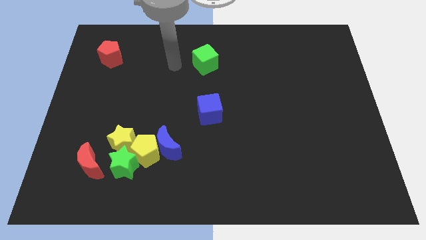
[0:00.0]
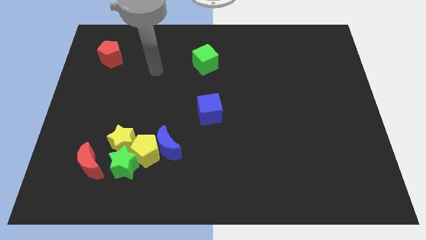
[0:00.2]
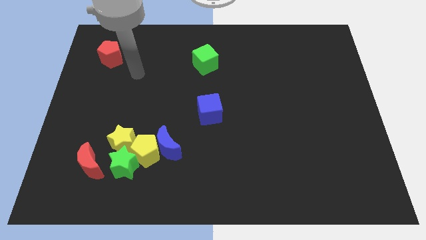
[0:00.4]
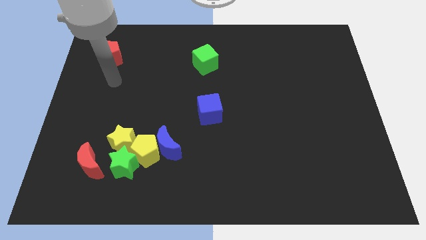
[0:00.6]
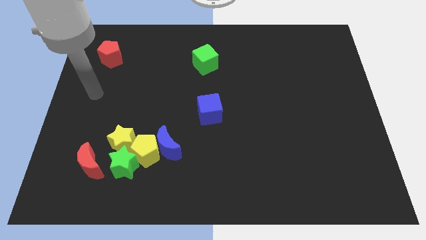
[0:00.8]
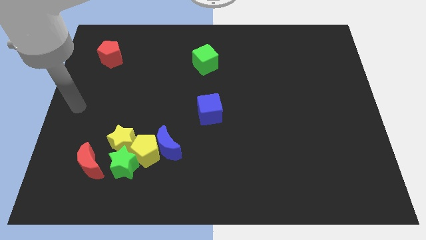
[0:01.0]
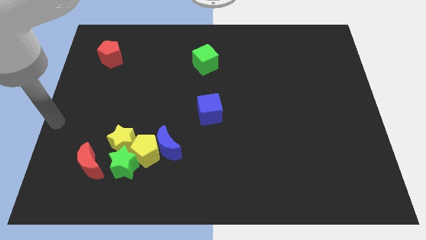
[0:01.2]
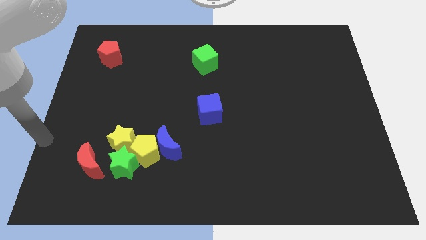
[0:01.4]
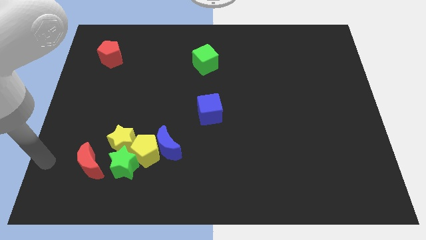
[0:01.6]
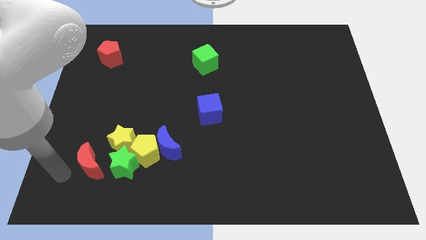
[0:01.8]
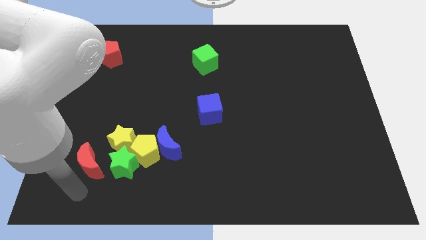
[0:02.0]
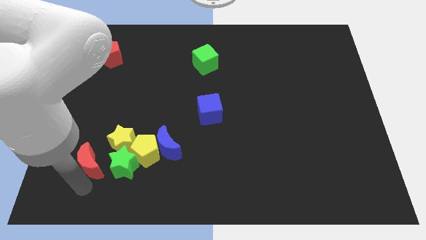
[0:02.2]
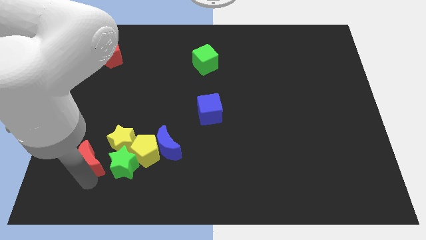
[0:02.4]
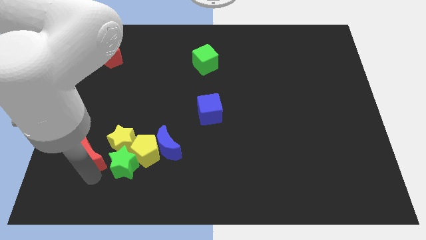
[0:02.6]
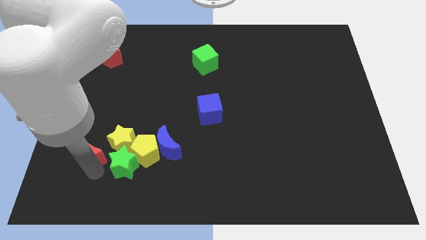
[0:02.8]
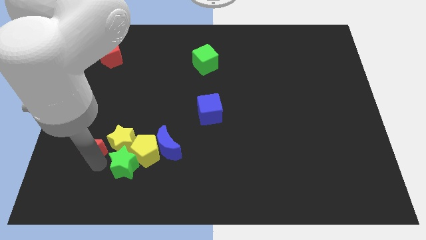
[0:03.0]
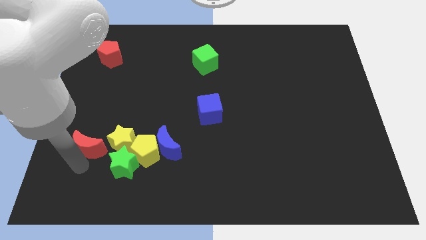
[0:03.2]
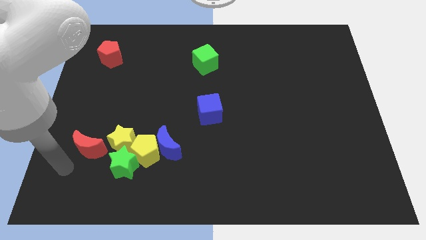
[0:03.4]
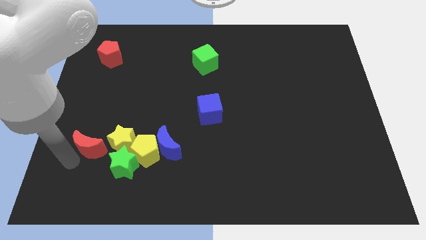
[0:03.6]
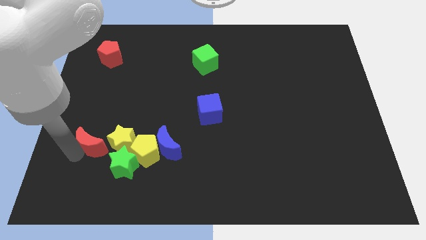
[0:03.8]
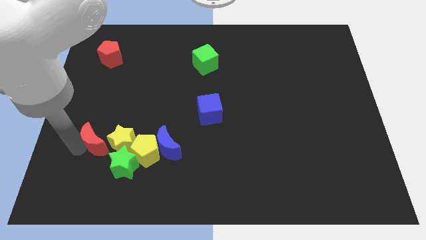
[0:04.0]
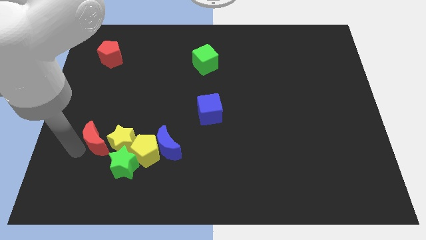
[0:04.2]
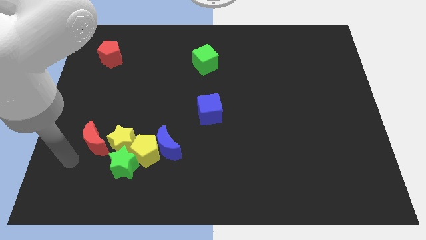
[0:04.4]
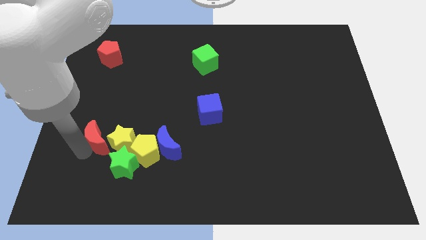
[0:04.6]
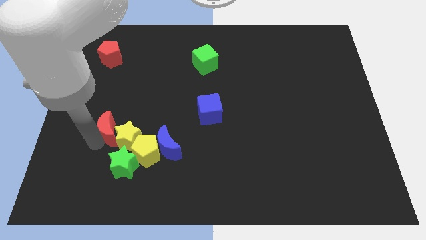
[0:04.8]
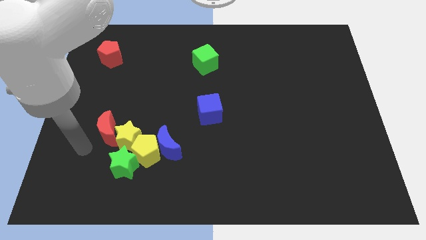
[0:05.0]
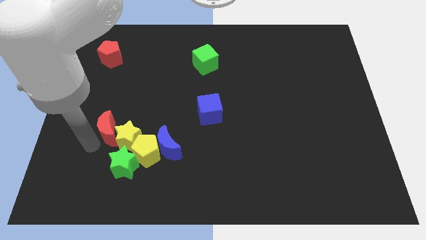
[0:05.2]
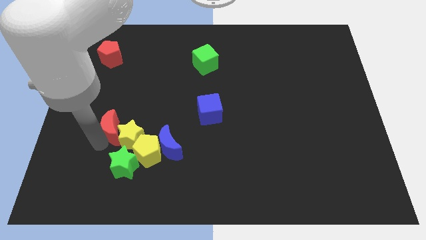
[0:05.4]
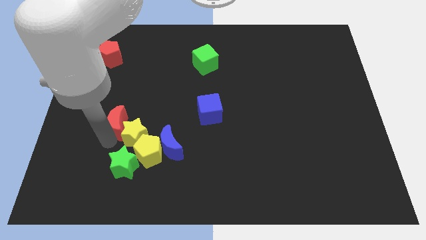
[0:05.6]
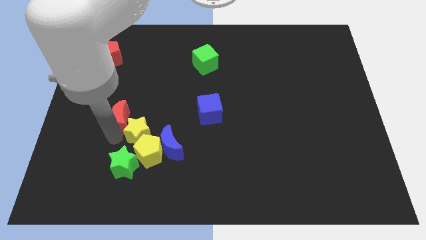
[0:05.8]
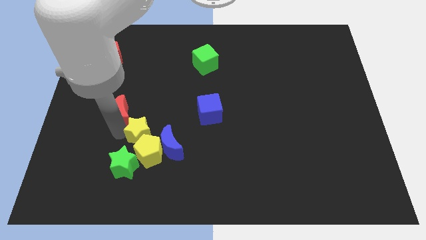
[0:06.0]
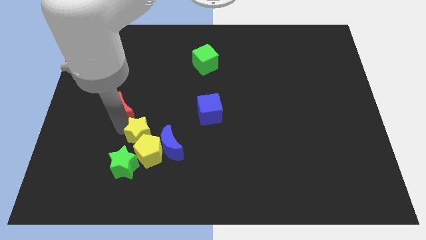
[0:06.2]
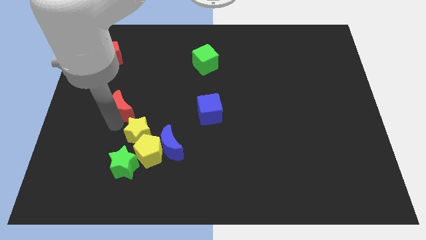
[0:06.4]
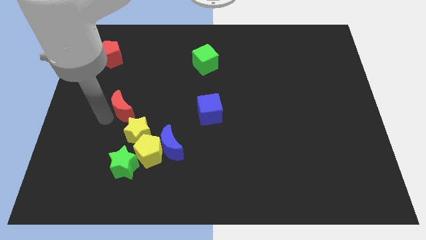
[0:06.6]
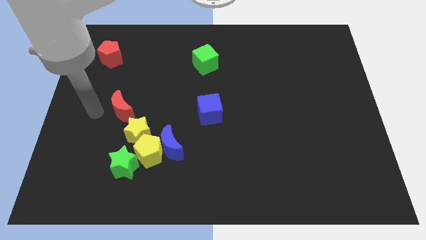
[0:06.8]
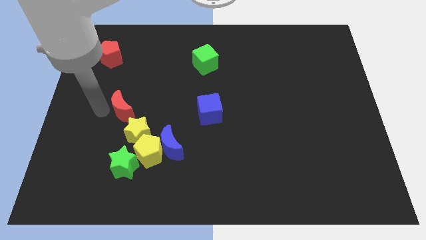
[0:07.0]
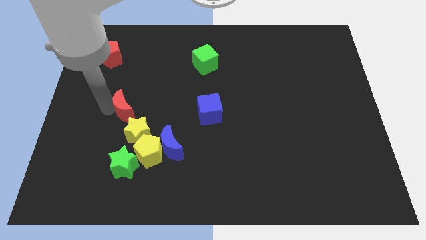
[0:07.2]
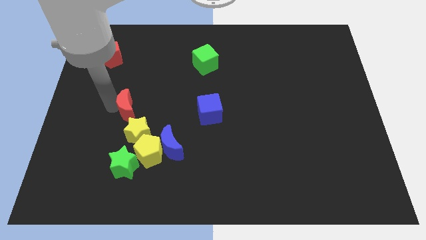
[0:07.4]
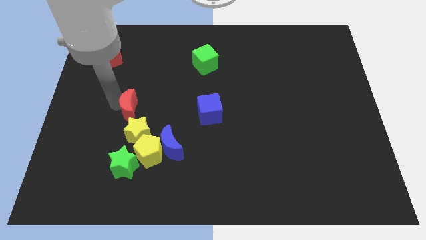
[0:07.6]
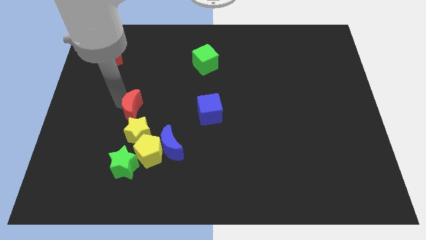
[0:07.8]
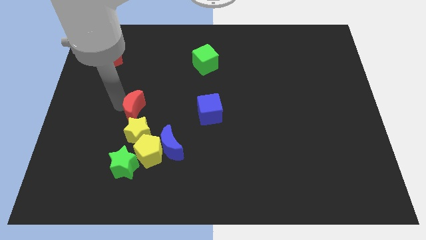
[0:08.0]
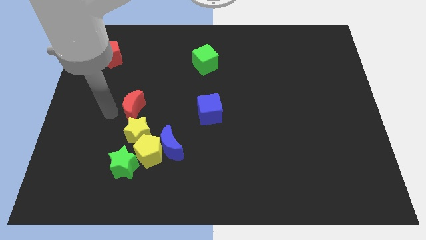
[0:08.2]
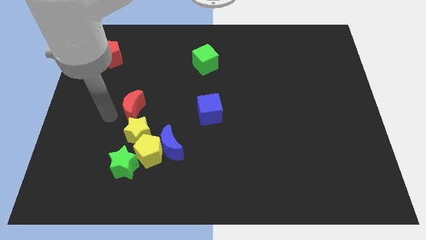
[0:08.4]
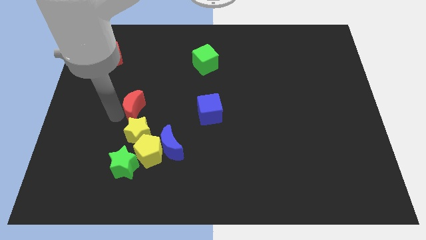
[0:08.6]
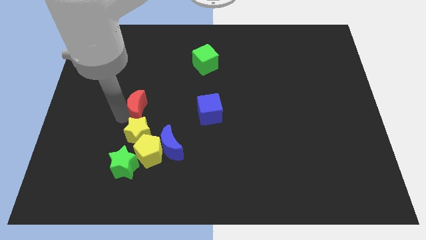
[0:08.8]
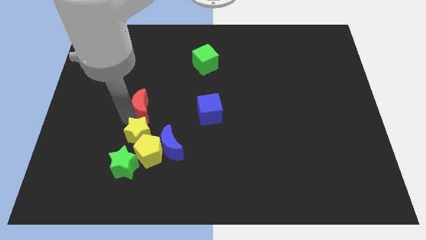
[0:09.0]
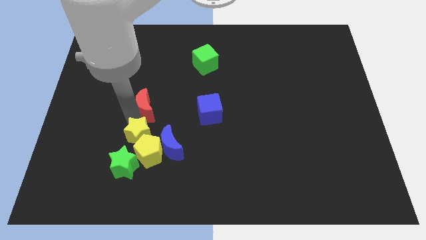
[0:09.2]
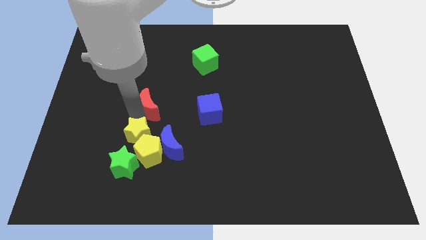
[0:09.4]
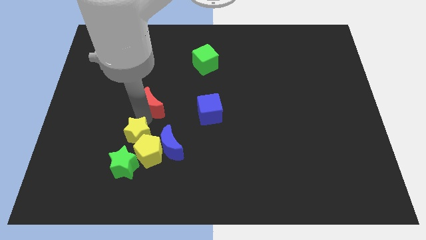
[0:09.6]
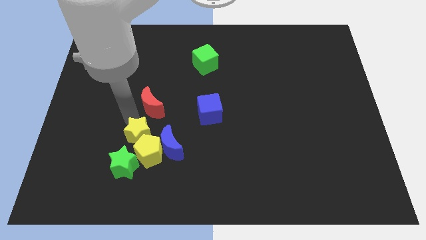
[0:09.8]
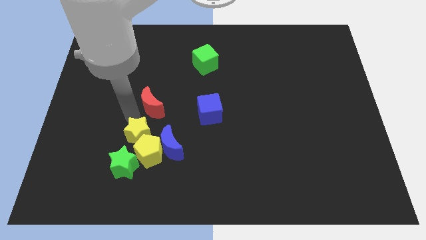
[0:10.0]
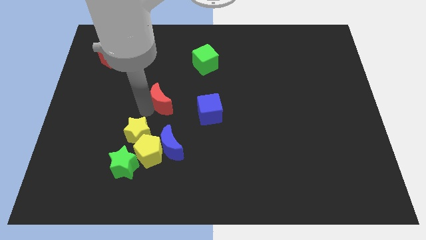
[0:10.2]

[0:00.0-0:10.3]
move the red moon diagonally upwards and right

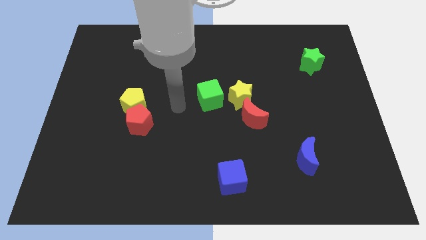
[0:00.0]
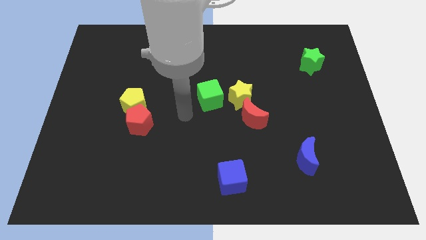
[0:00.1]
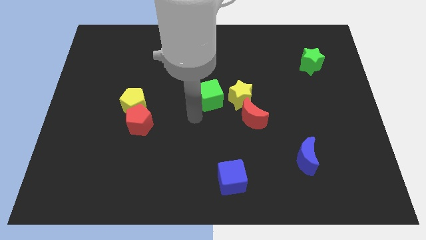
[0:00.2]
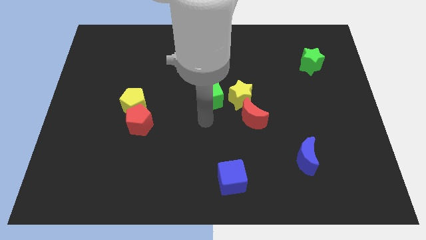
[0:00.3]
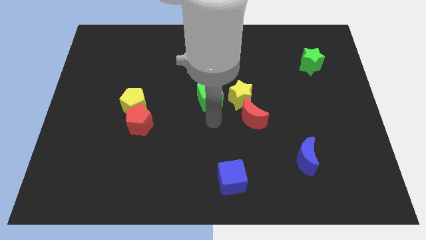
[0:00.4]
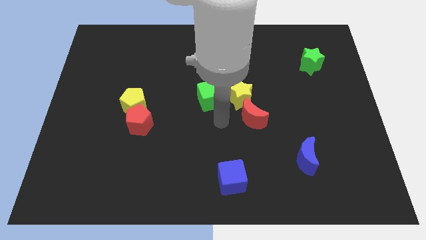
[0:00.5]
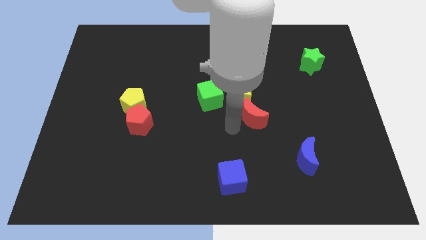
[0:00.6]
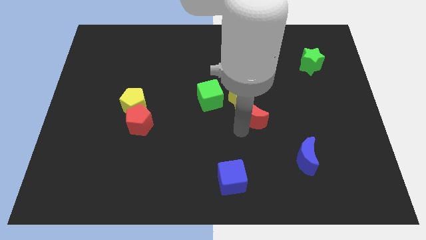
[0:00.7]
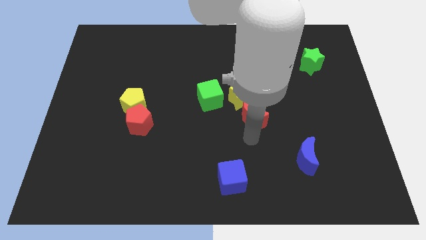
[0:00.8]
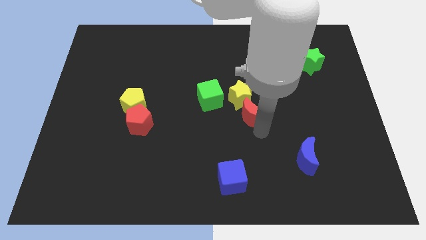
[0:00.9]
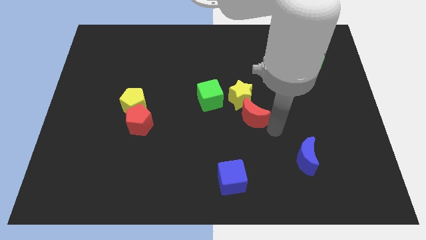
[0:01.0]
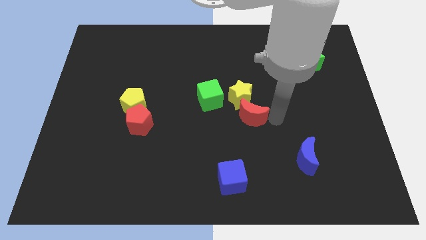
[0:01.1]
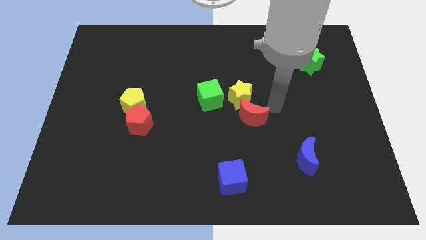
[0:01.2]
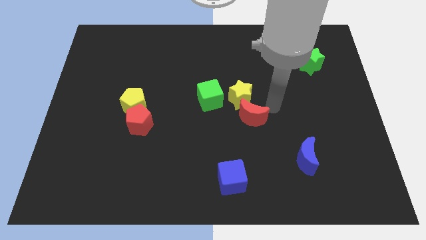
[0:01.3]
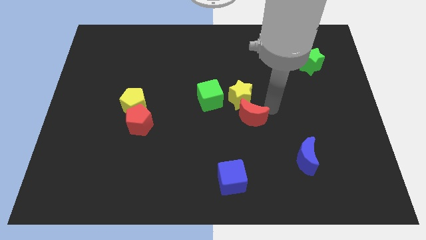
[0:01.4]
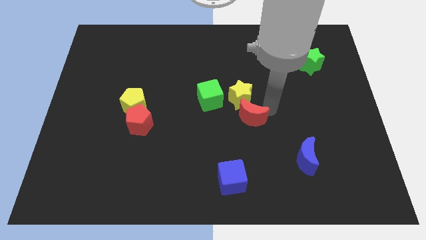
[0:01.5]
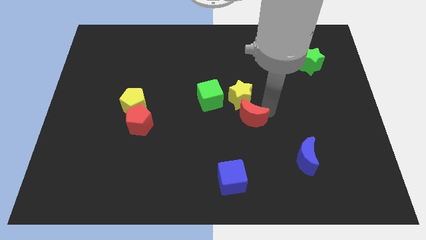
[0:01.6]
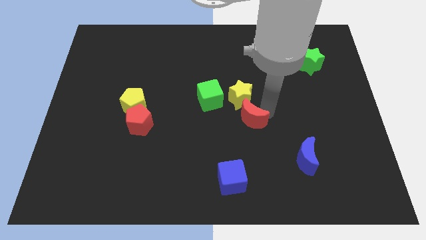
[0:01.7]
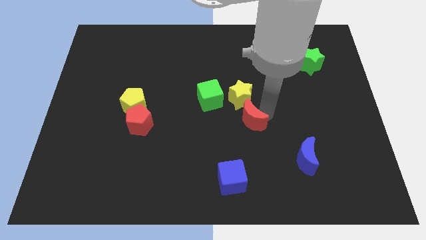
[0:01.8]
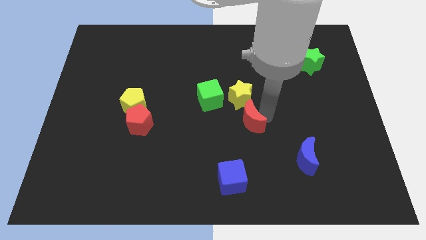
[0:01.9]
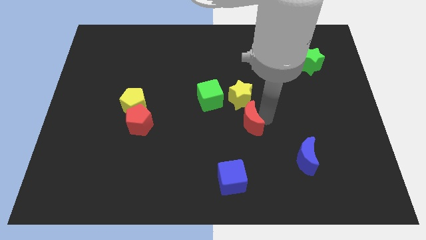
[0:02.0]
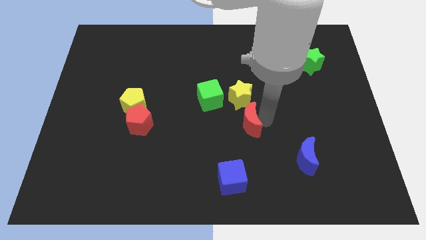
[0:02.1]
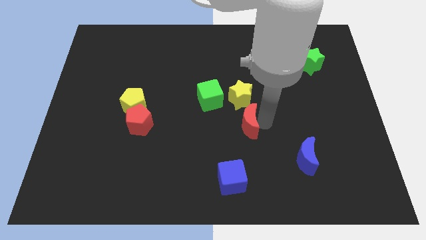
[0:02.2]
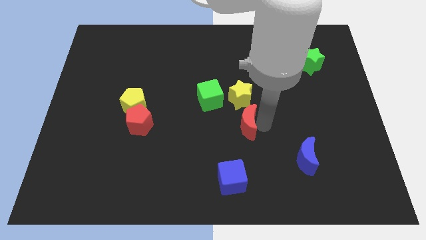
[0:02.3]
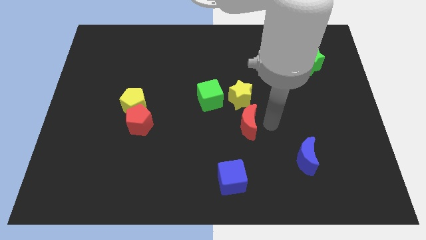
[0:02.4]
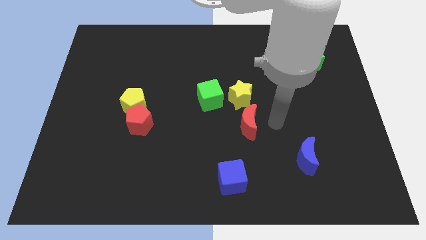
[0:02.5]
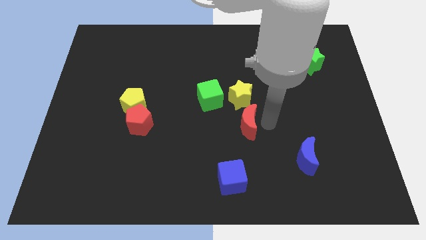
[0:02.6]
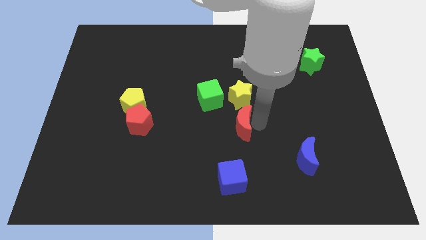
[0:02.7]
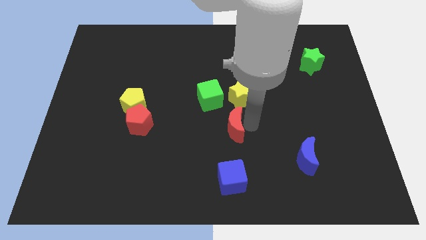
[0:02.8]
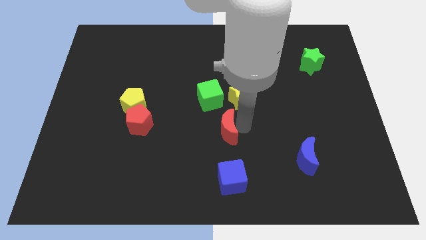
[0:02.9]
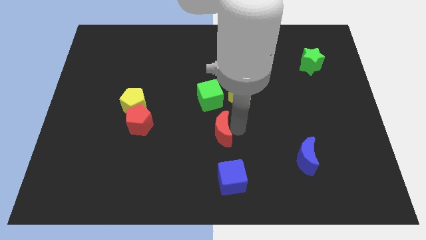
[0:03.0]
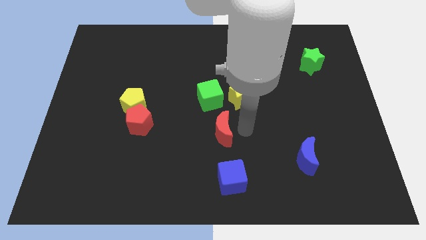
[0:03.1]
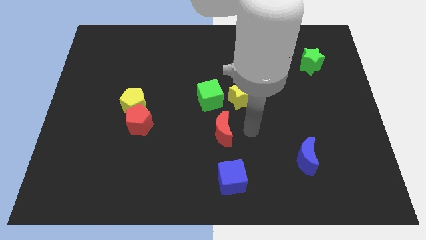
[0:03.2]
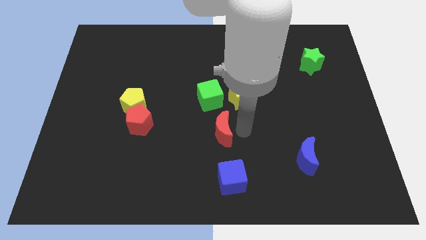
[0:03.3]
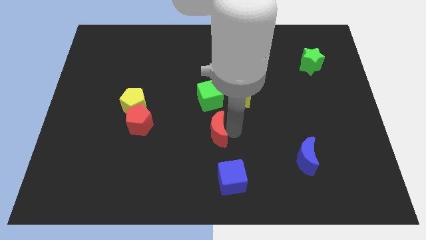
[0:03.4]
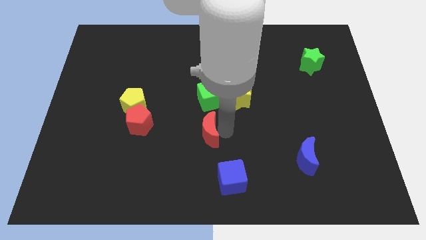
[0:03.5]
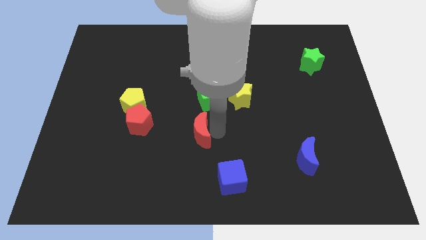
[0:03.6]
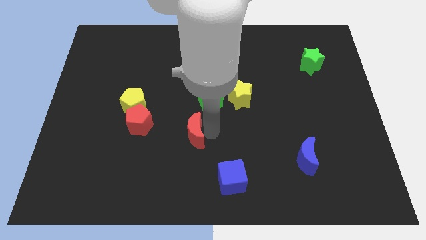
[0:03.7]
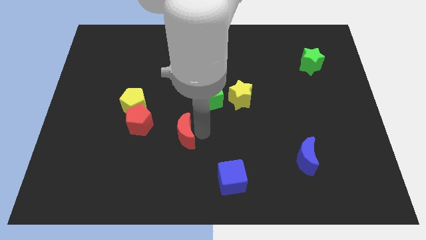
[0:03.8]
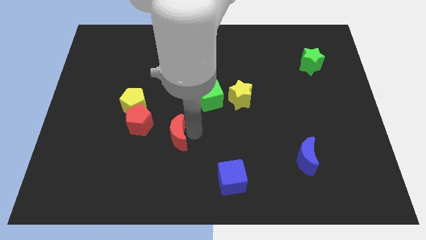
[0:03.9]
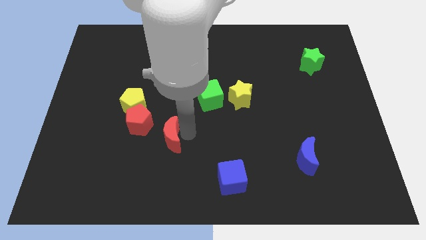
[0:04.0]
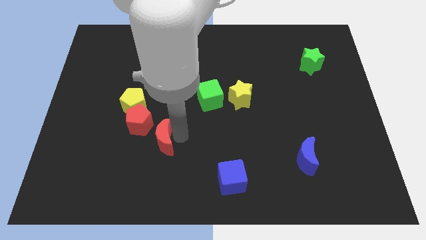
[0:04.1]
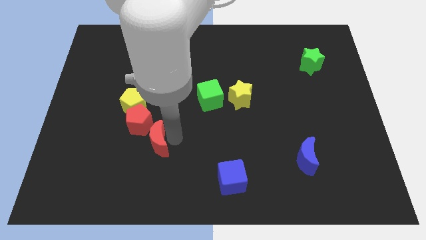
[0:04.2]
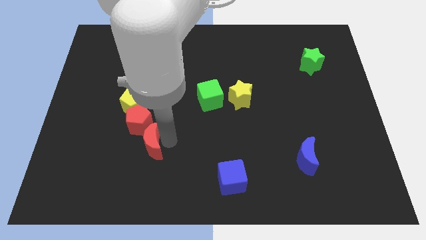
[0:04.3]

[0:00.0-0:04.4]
slide the red moon left
